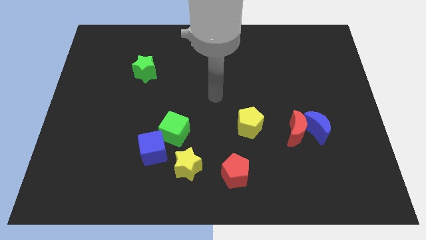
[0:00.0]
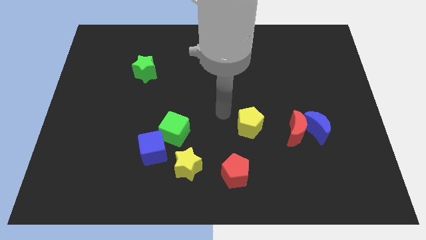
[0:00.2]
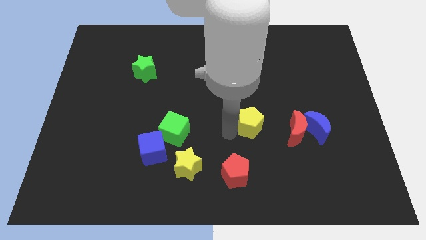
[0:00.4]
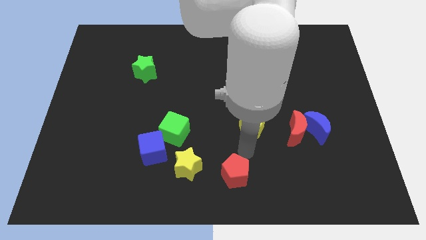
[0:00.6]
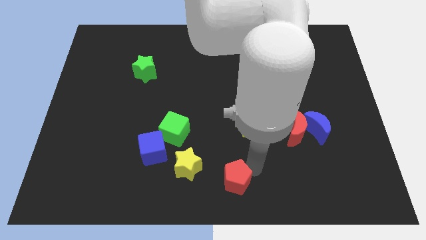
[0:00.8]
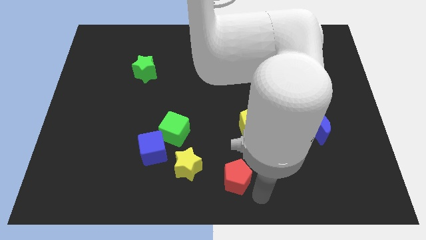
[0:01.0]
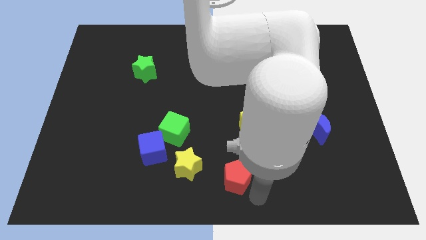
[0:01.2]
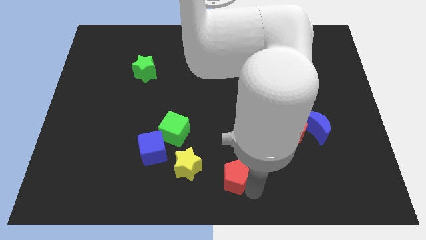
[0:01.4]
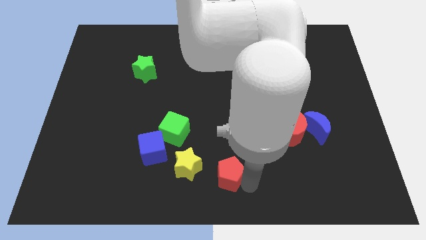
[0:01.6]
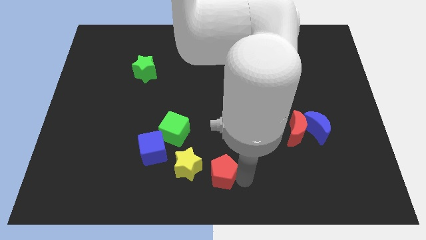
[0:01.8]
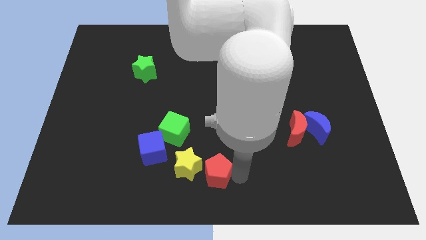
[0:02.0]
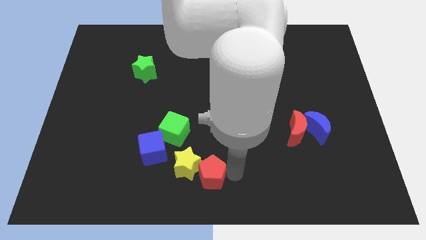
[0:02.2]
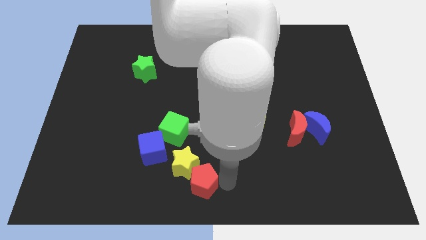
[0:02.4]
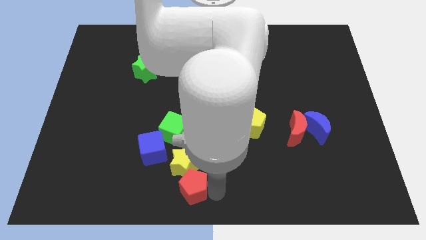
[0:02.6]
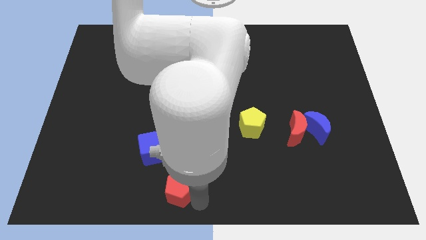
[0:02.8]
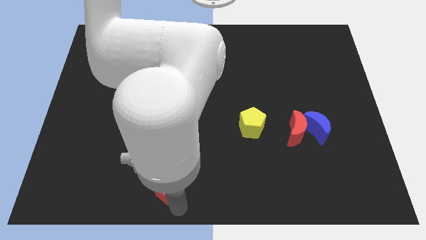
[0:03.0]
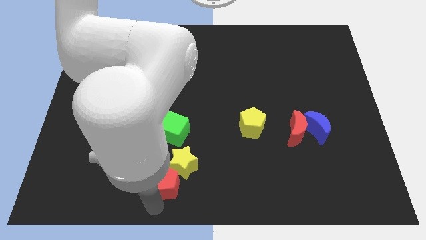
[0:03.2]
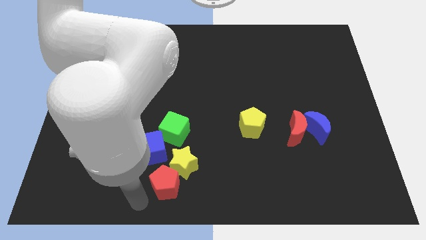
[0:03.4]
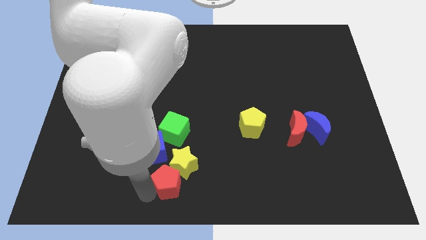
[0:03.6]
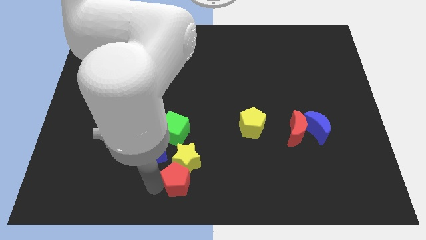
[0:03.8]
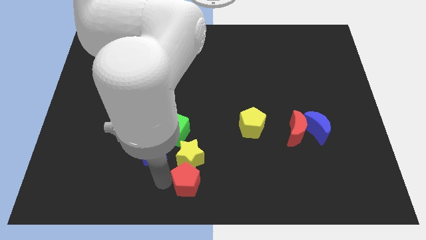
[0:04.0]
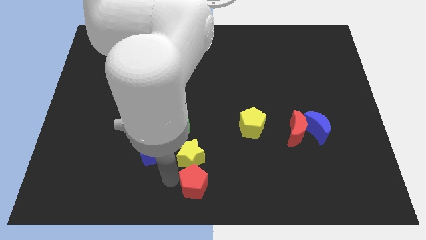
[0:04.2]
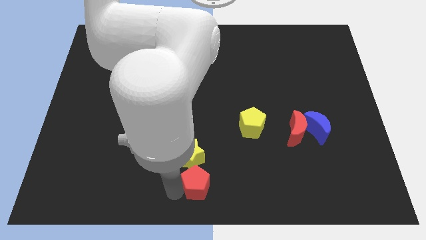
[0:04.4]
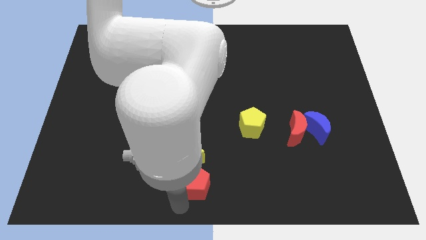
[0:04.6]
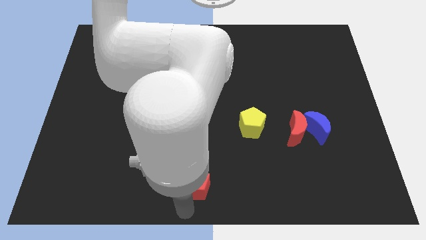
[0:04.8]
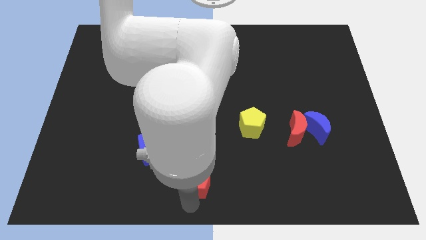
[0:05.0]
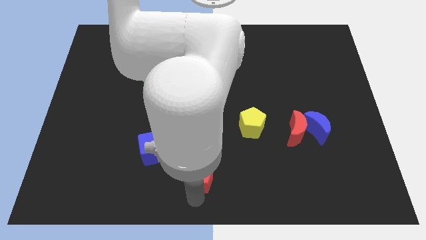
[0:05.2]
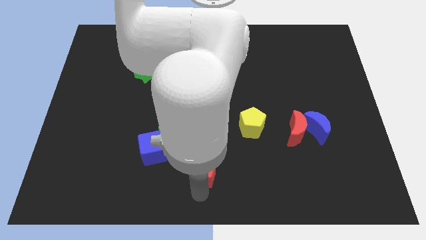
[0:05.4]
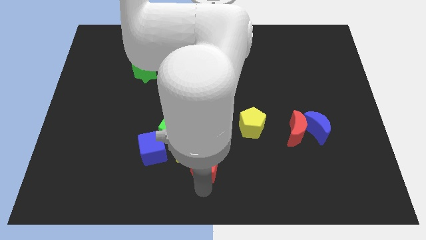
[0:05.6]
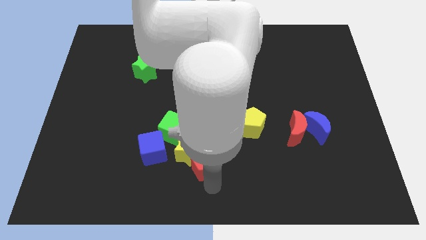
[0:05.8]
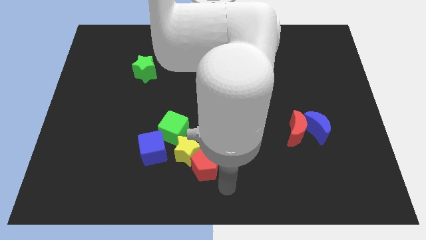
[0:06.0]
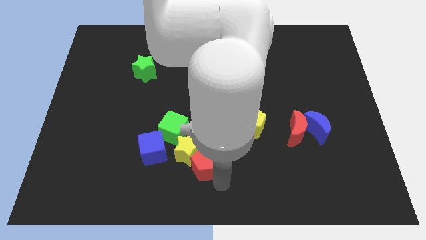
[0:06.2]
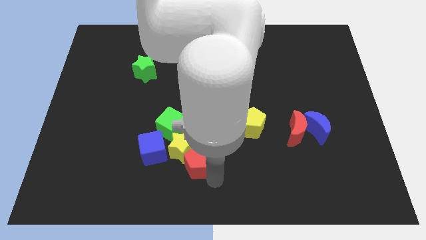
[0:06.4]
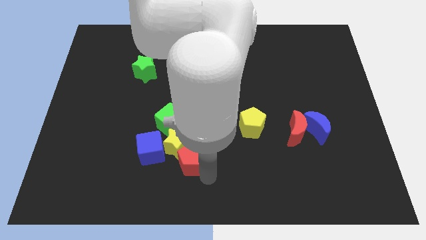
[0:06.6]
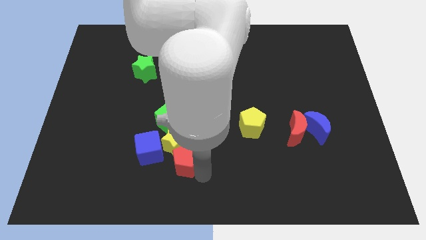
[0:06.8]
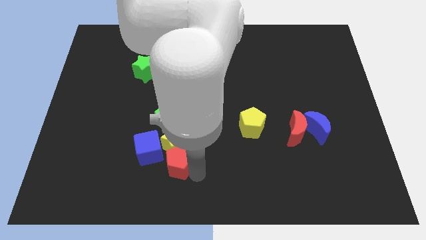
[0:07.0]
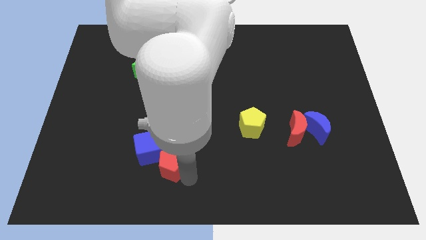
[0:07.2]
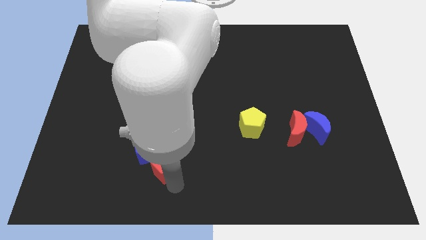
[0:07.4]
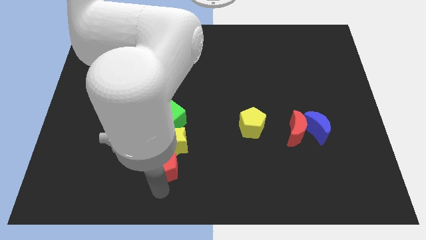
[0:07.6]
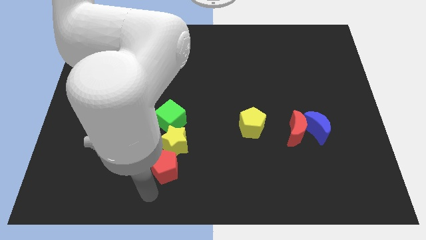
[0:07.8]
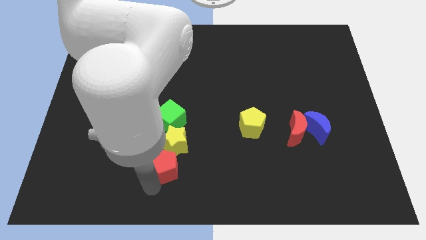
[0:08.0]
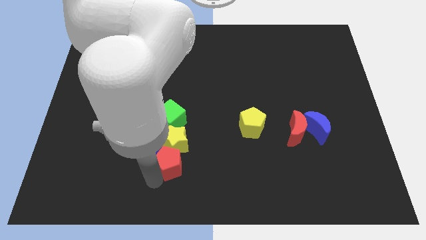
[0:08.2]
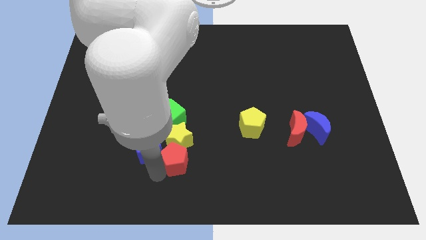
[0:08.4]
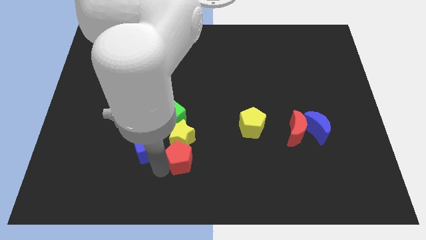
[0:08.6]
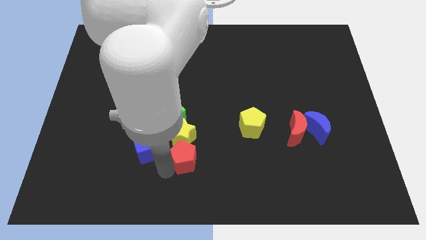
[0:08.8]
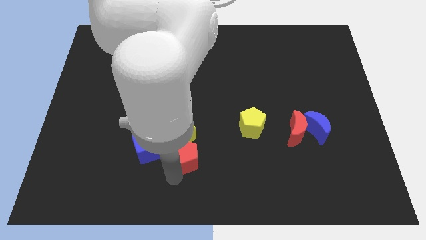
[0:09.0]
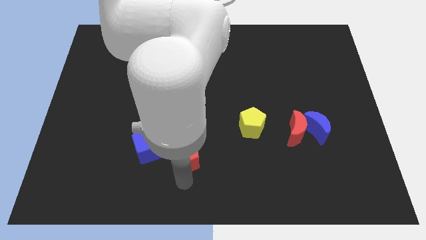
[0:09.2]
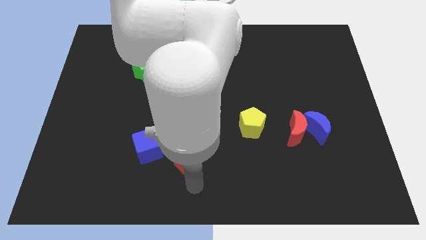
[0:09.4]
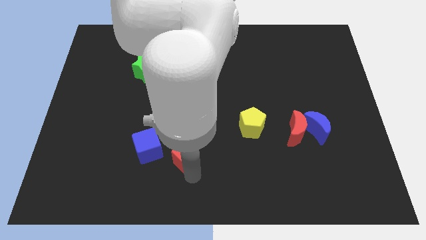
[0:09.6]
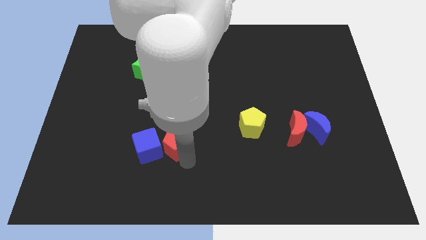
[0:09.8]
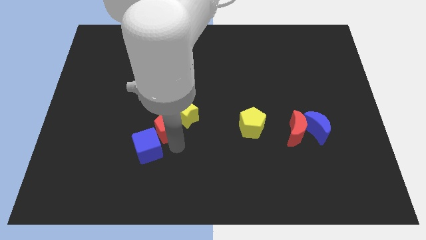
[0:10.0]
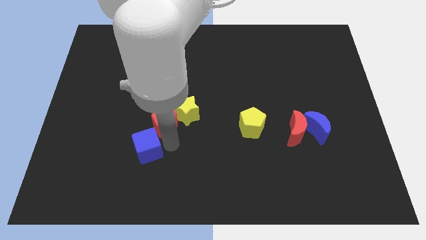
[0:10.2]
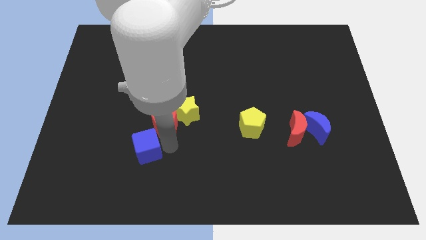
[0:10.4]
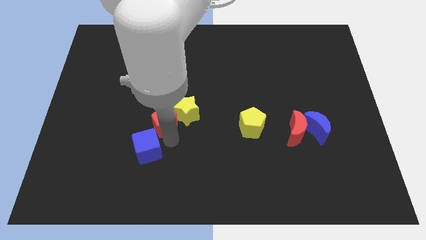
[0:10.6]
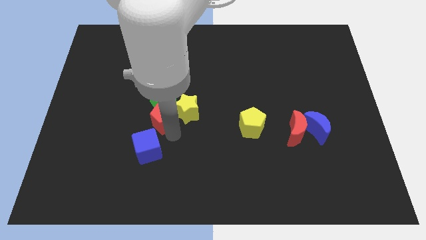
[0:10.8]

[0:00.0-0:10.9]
push the red pentagon close to the green cube

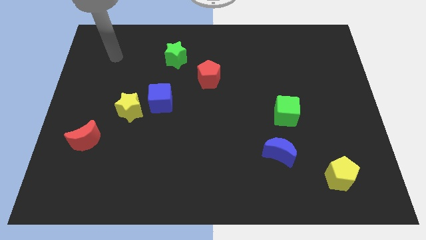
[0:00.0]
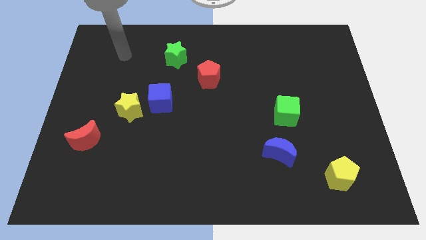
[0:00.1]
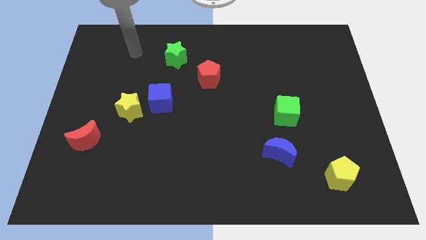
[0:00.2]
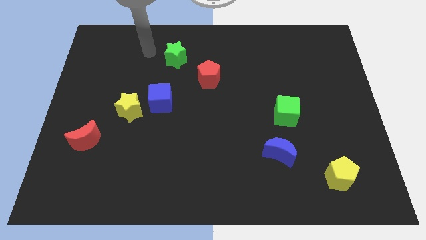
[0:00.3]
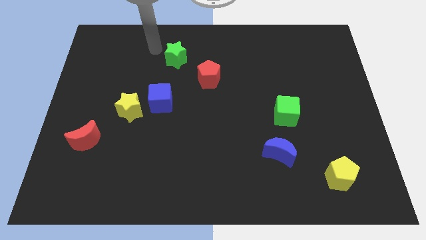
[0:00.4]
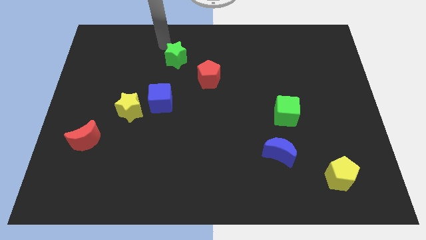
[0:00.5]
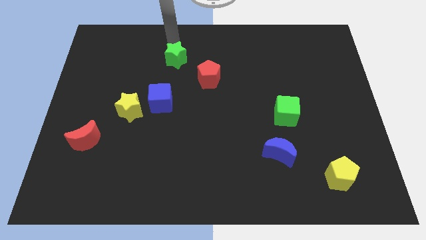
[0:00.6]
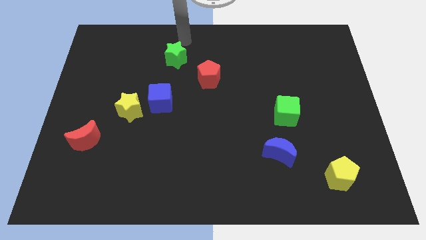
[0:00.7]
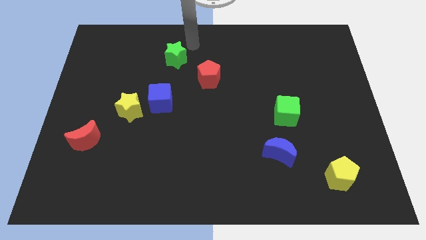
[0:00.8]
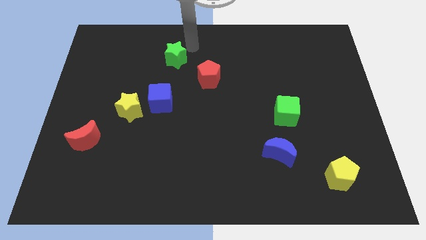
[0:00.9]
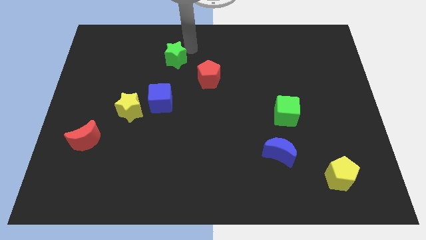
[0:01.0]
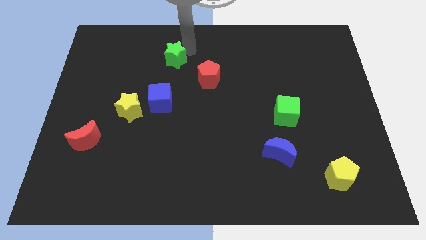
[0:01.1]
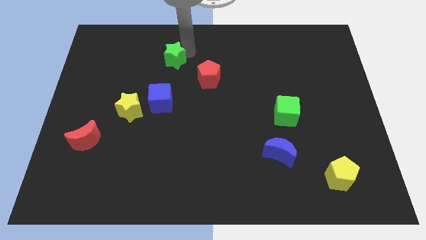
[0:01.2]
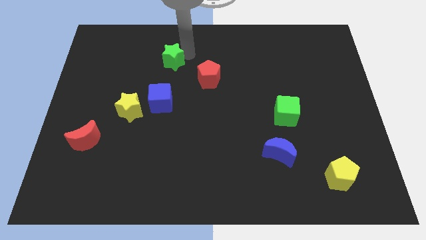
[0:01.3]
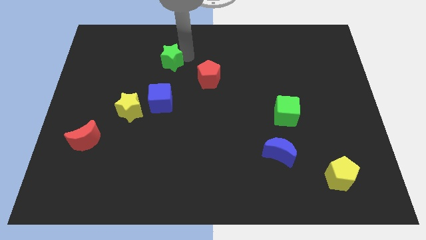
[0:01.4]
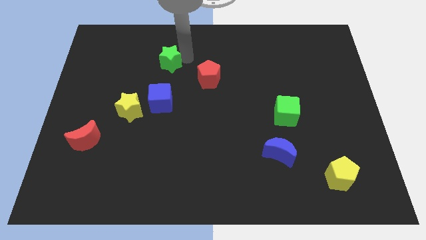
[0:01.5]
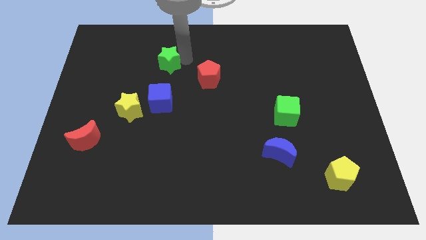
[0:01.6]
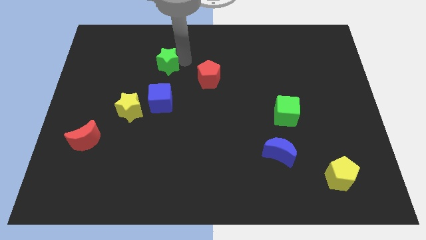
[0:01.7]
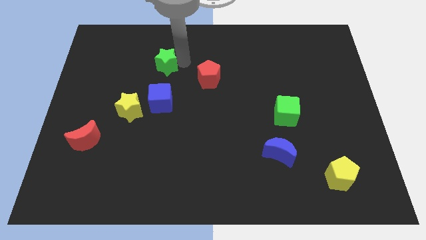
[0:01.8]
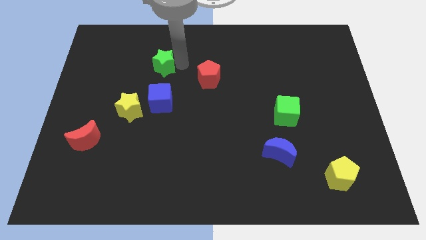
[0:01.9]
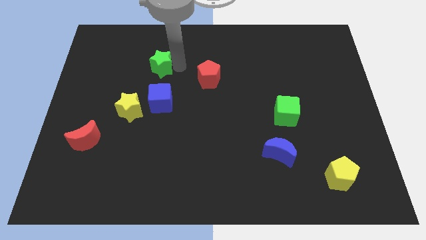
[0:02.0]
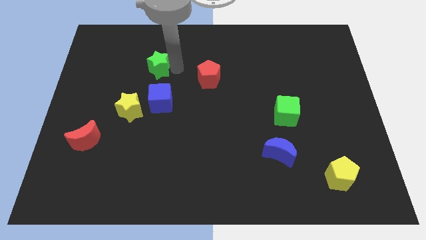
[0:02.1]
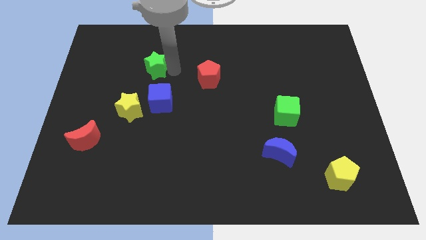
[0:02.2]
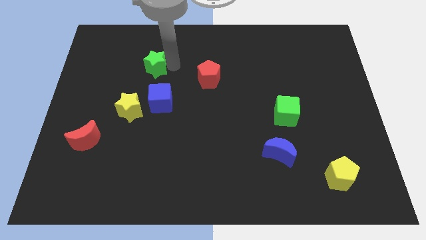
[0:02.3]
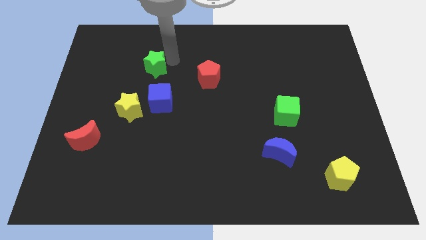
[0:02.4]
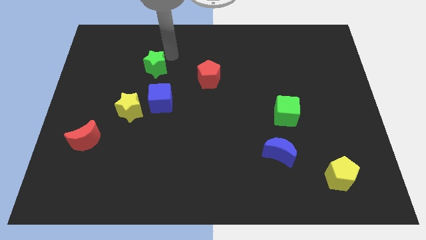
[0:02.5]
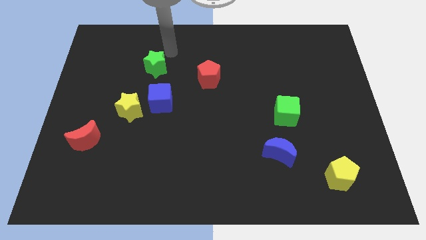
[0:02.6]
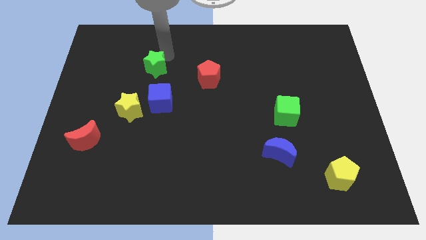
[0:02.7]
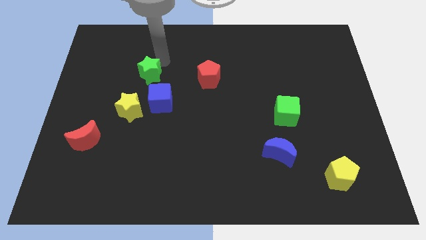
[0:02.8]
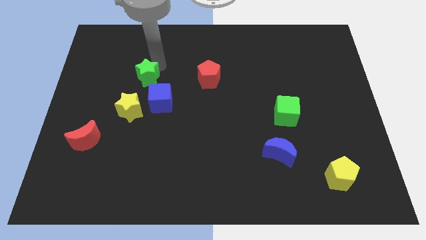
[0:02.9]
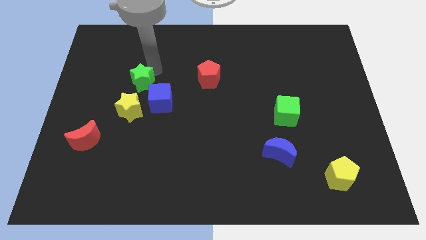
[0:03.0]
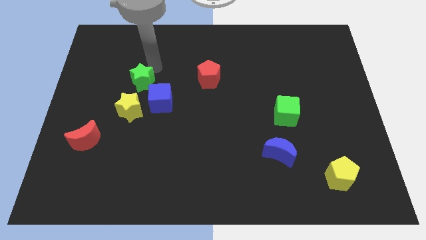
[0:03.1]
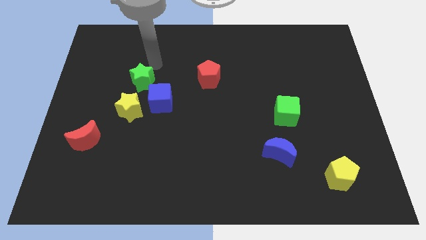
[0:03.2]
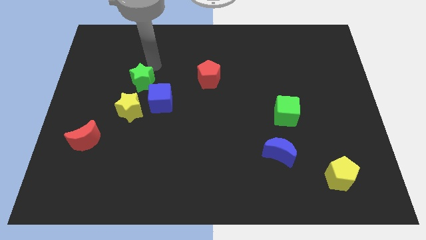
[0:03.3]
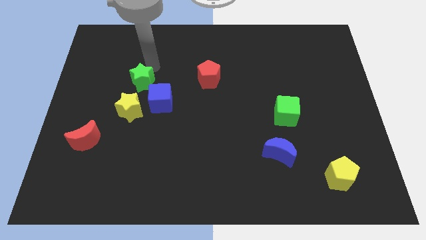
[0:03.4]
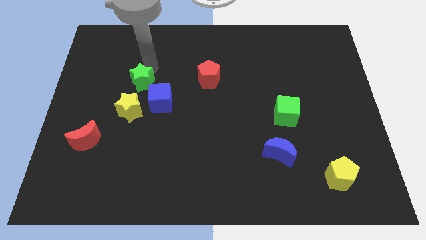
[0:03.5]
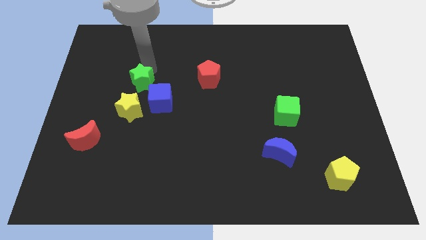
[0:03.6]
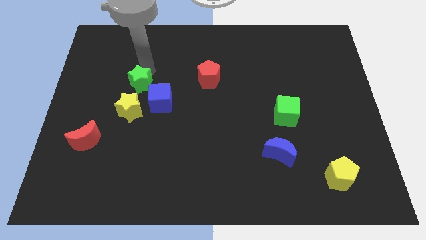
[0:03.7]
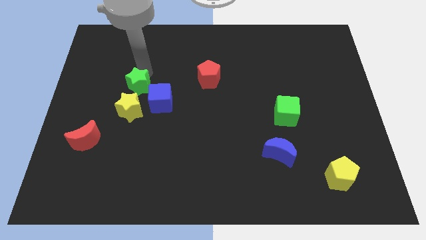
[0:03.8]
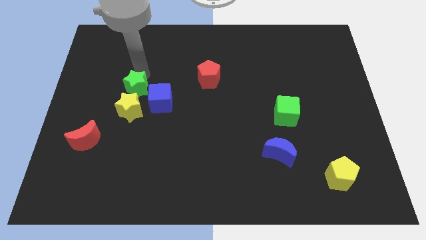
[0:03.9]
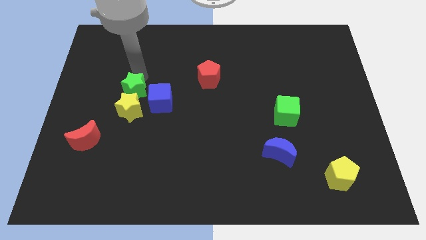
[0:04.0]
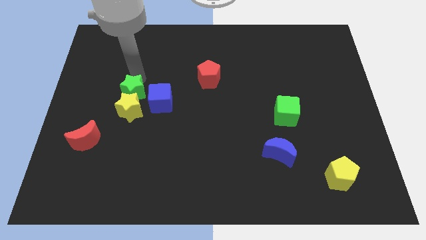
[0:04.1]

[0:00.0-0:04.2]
move the green star close to the yellow star
